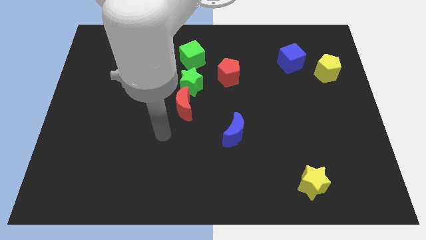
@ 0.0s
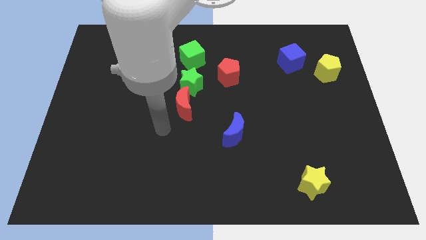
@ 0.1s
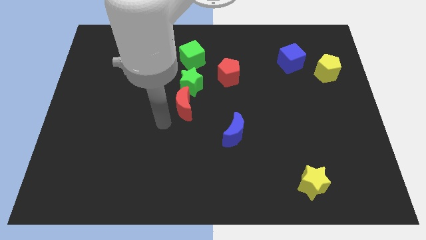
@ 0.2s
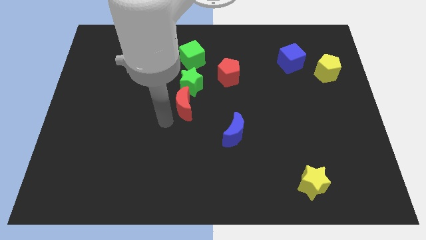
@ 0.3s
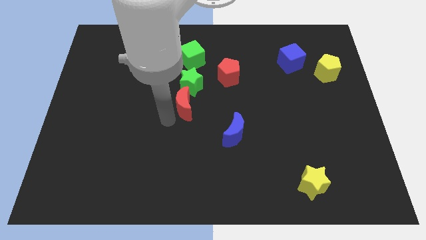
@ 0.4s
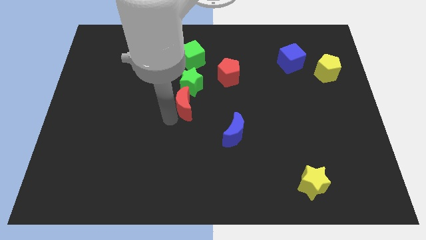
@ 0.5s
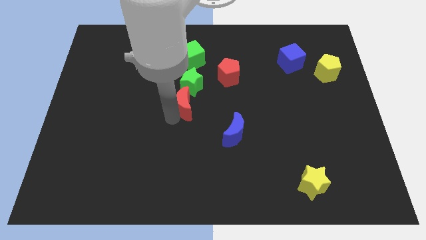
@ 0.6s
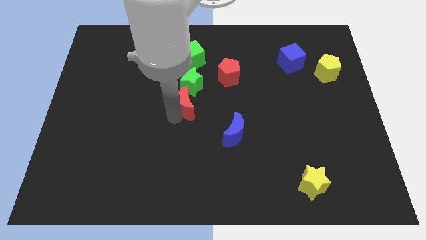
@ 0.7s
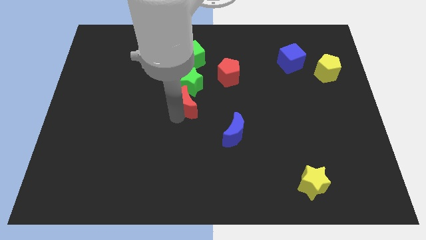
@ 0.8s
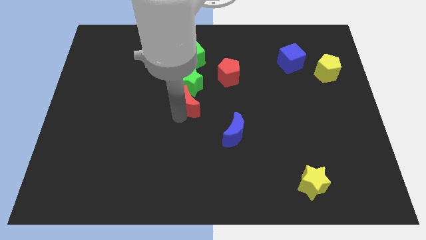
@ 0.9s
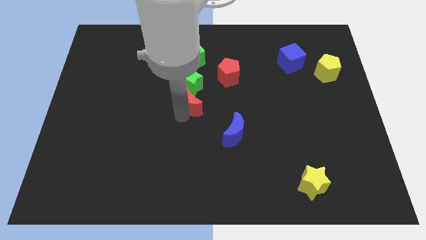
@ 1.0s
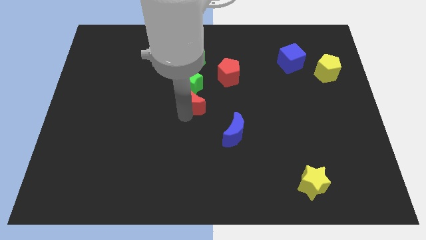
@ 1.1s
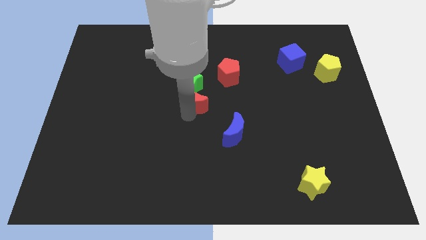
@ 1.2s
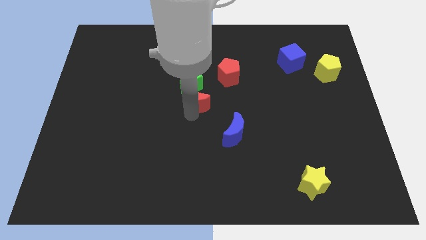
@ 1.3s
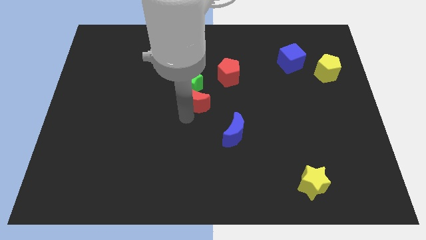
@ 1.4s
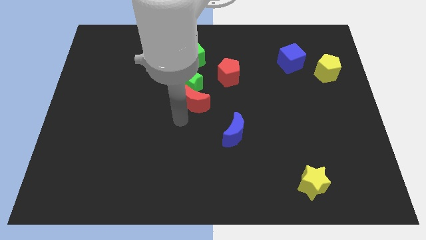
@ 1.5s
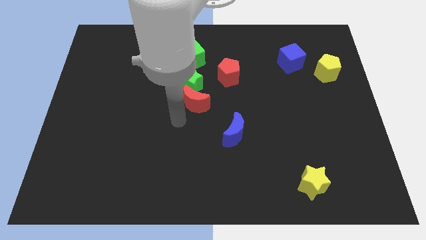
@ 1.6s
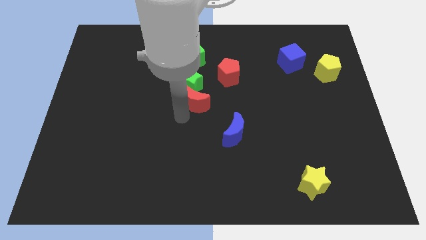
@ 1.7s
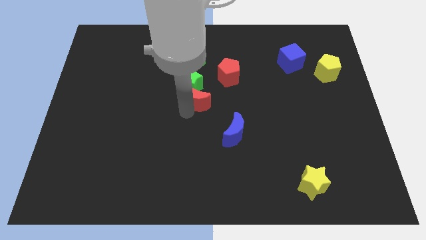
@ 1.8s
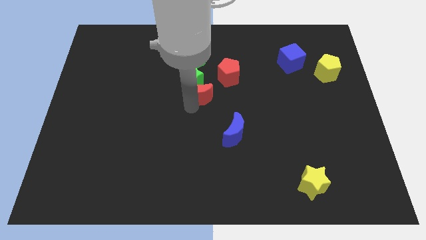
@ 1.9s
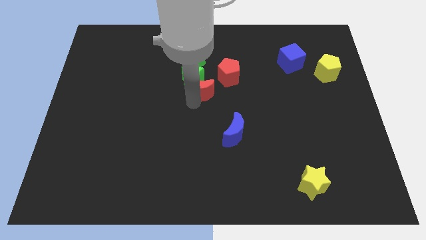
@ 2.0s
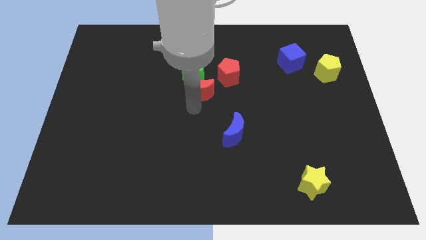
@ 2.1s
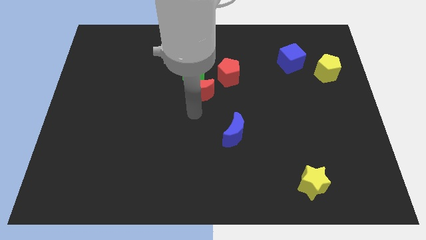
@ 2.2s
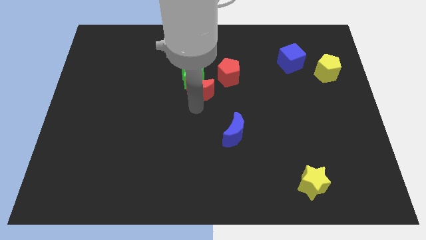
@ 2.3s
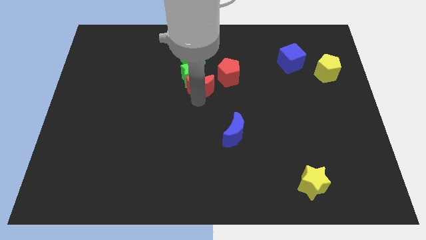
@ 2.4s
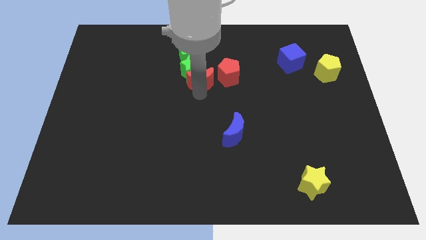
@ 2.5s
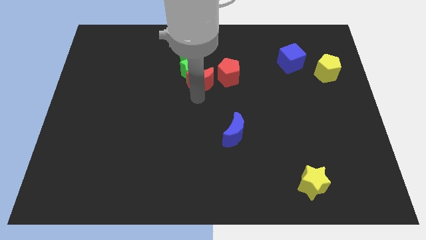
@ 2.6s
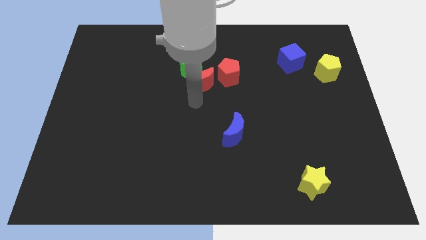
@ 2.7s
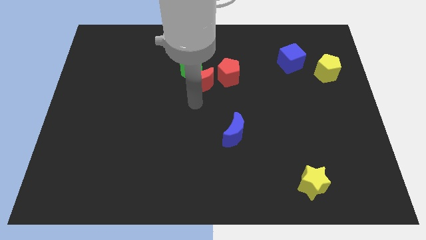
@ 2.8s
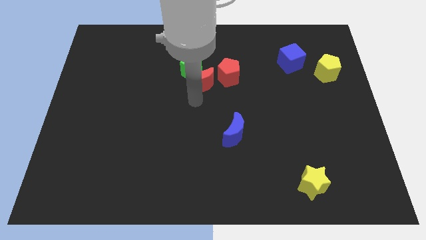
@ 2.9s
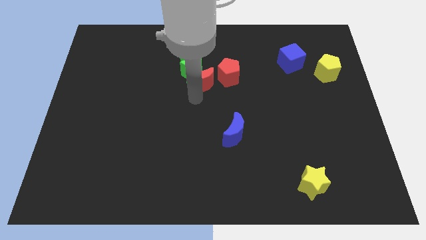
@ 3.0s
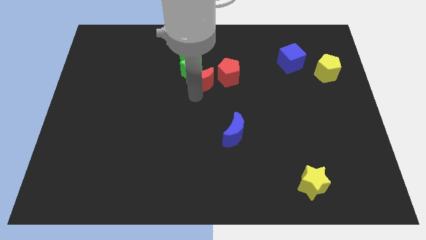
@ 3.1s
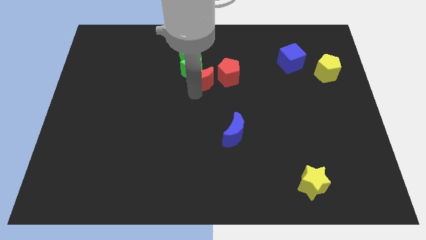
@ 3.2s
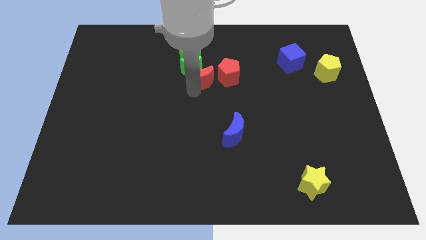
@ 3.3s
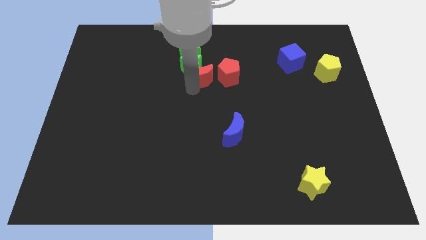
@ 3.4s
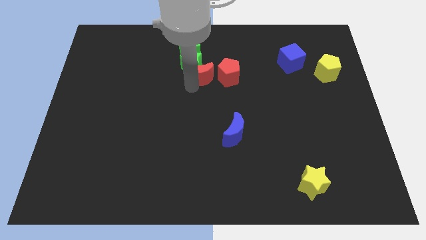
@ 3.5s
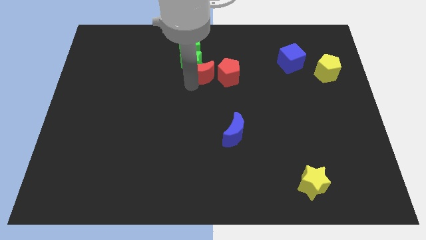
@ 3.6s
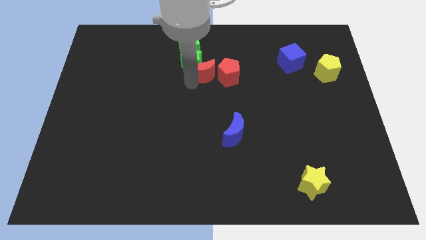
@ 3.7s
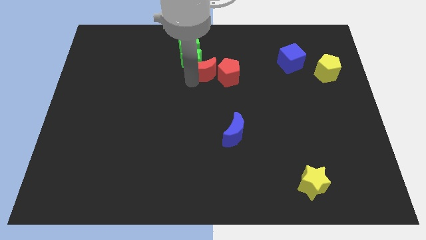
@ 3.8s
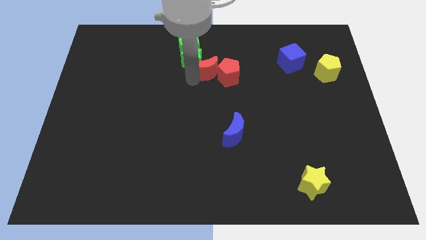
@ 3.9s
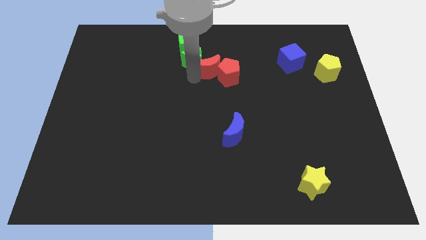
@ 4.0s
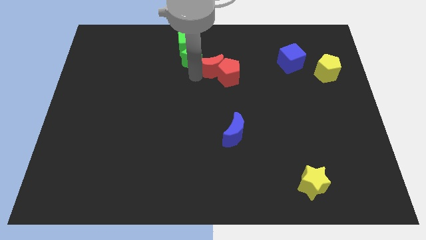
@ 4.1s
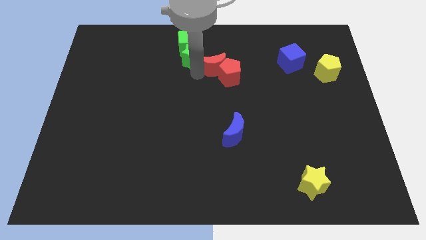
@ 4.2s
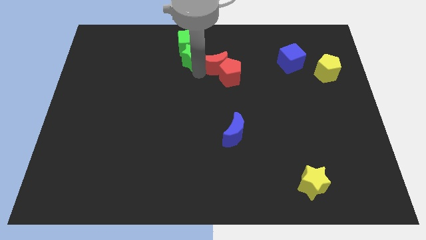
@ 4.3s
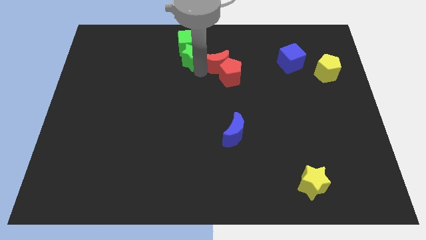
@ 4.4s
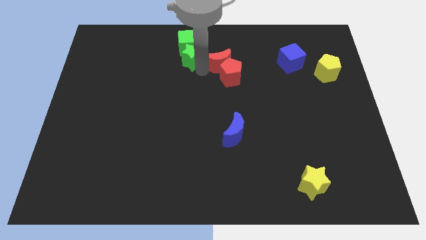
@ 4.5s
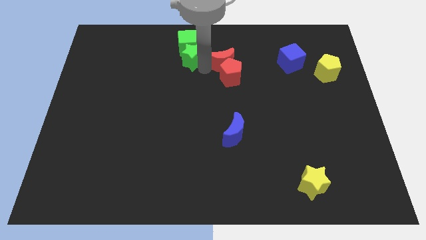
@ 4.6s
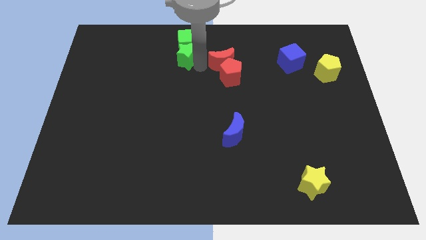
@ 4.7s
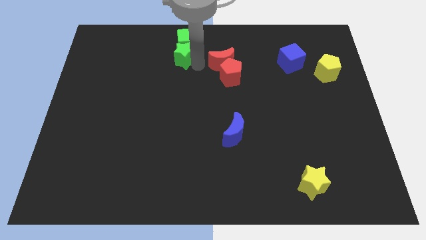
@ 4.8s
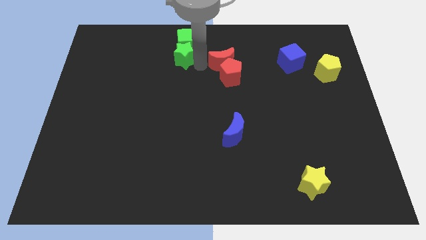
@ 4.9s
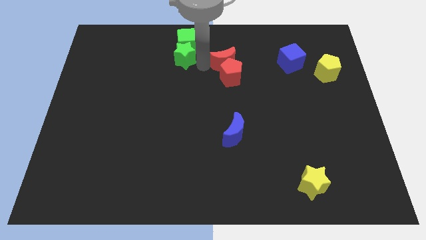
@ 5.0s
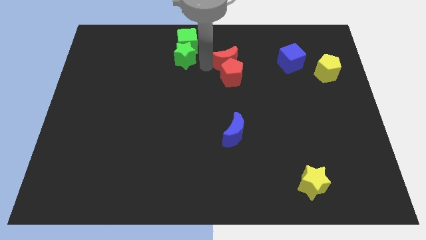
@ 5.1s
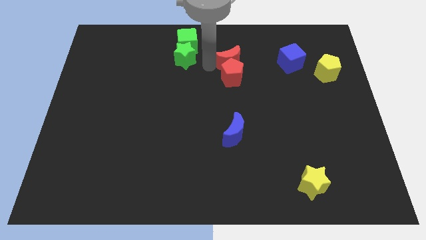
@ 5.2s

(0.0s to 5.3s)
put the red moon just left of the blue cube

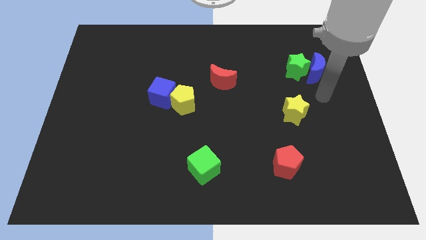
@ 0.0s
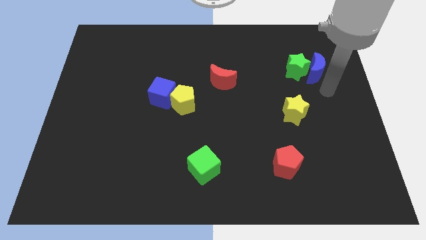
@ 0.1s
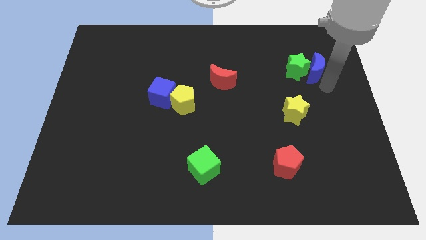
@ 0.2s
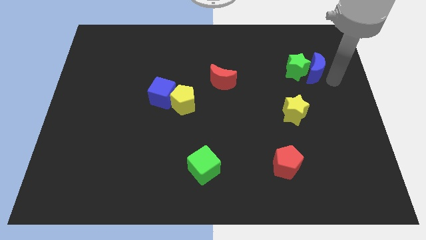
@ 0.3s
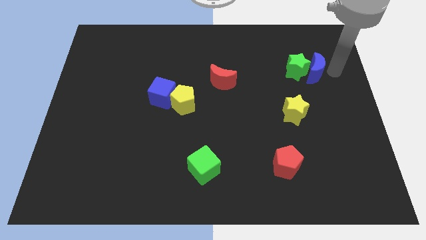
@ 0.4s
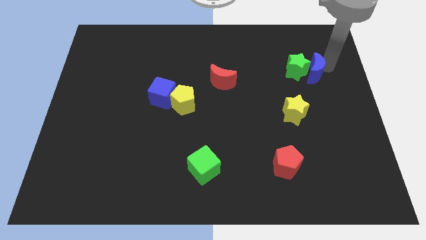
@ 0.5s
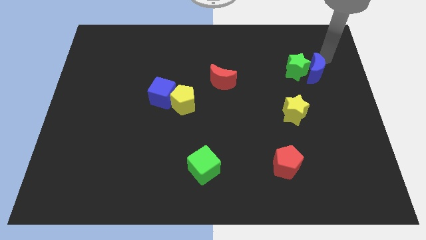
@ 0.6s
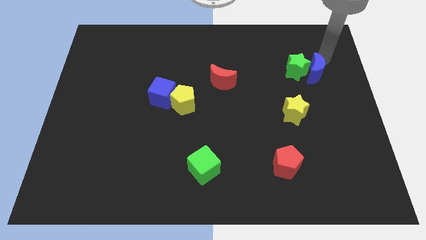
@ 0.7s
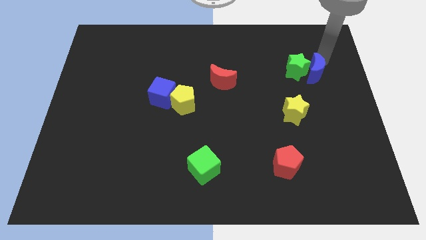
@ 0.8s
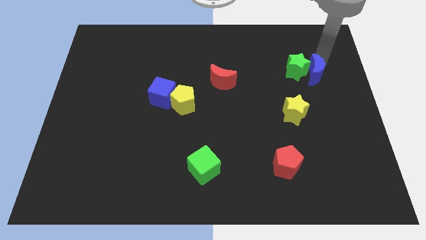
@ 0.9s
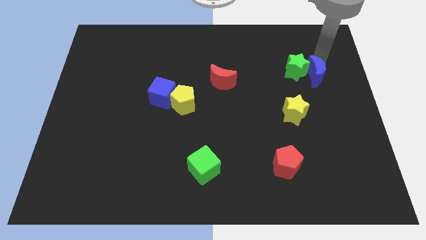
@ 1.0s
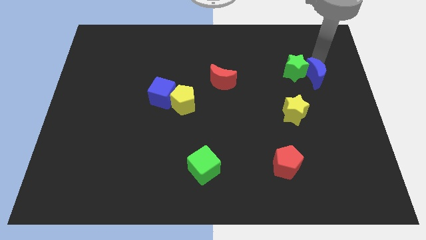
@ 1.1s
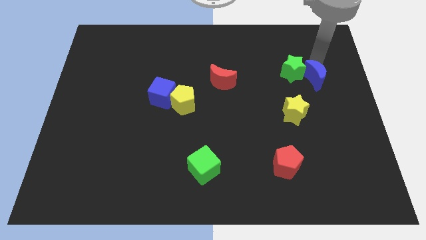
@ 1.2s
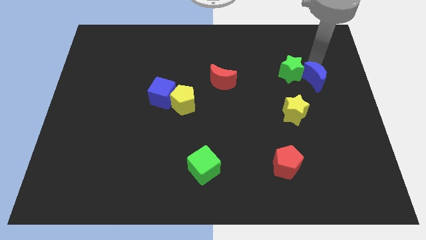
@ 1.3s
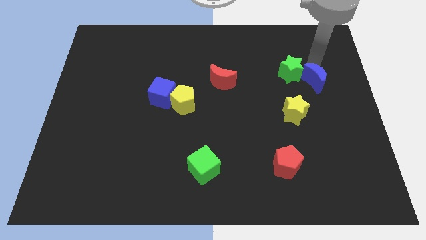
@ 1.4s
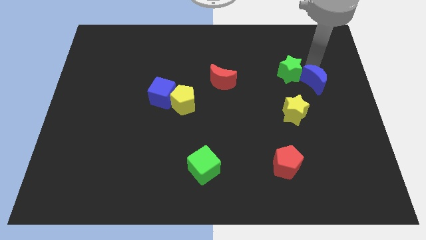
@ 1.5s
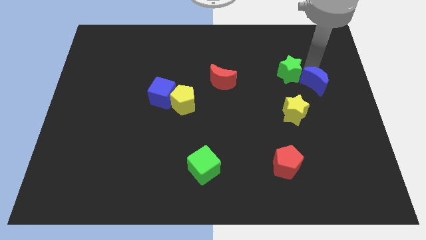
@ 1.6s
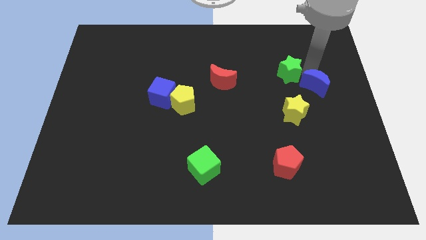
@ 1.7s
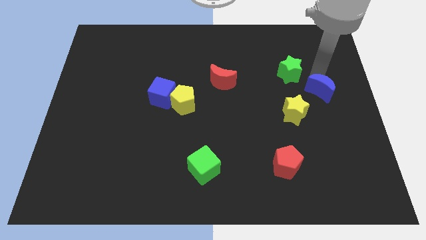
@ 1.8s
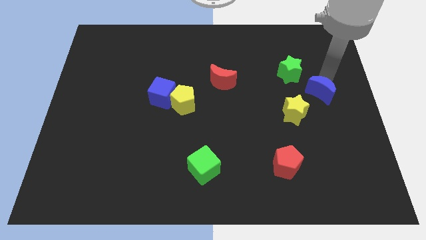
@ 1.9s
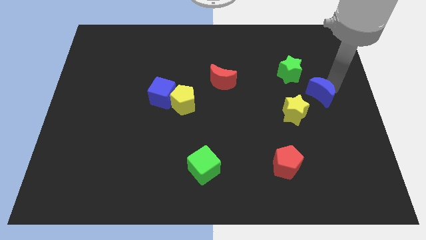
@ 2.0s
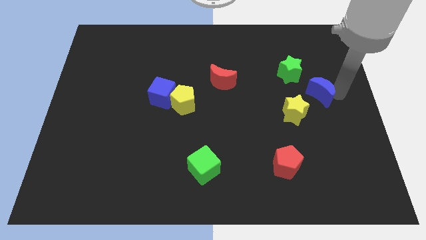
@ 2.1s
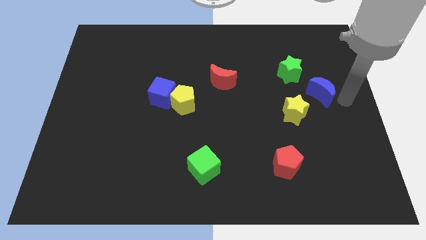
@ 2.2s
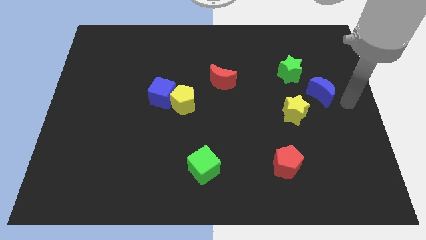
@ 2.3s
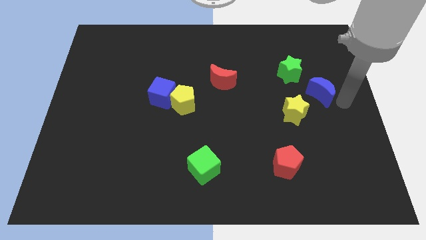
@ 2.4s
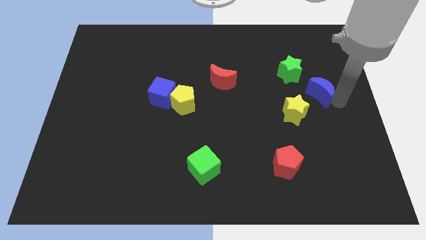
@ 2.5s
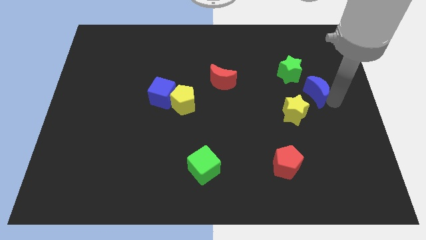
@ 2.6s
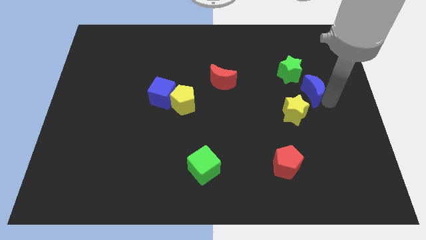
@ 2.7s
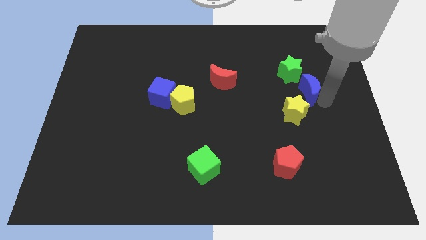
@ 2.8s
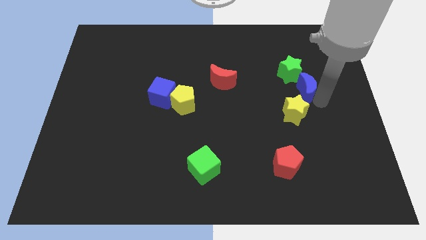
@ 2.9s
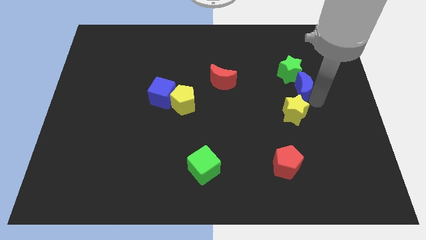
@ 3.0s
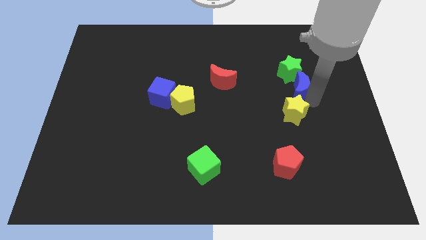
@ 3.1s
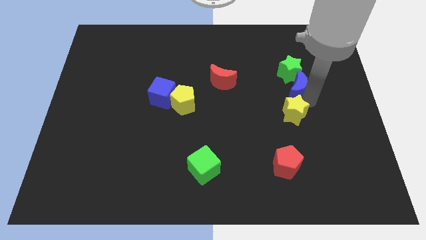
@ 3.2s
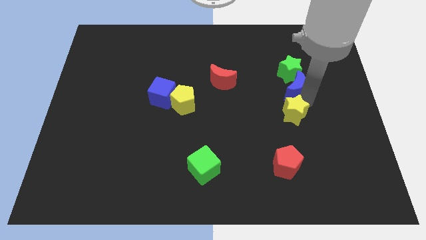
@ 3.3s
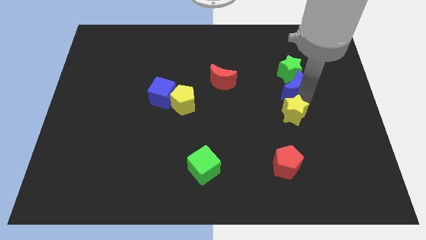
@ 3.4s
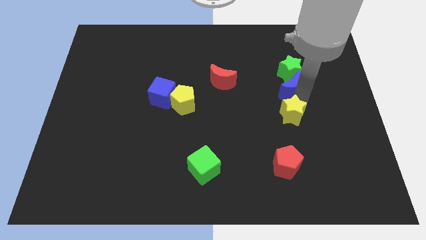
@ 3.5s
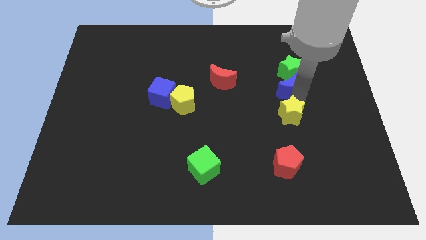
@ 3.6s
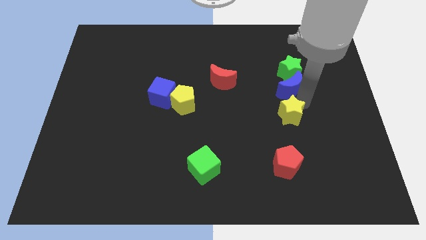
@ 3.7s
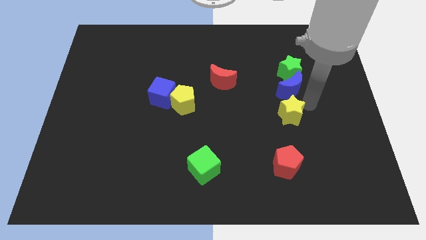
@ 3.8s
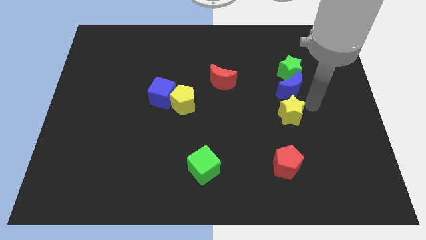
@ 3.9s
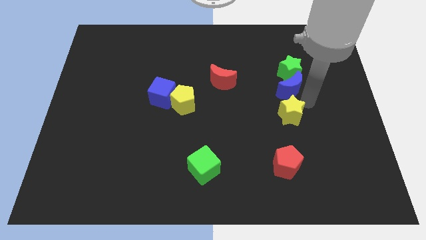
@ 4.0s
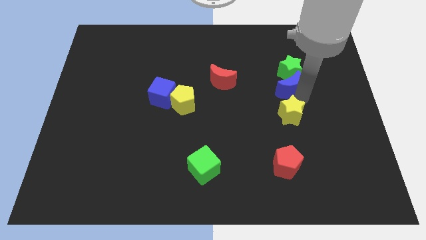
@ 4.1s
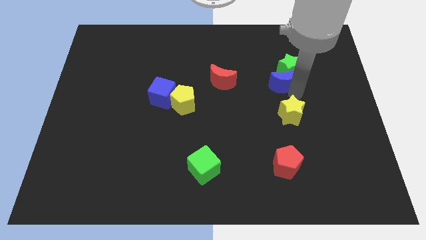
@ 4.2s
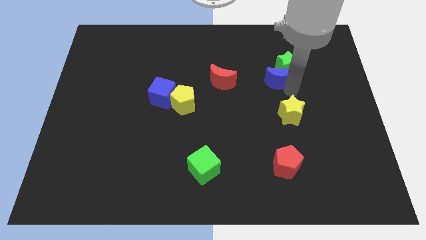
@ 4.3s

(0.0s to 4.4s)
slide the blue moon just left of the green star
